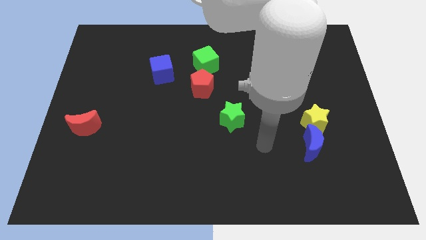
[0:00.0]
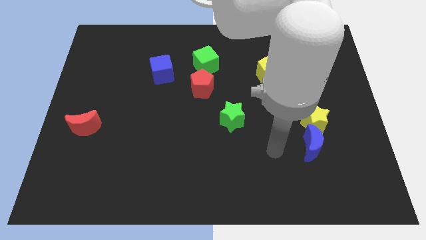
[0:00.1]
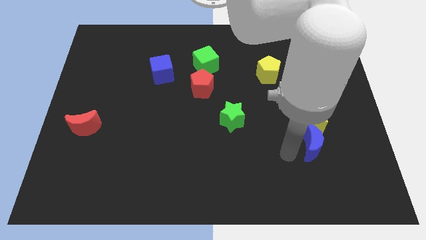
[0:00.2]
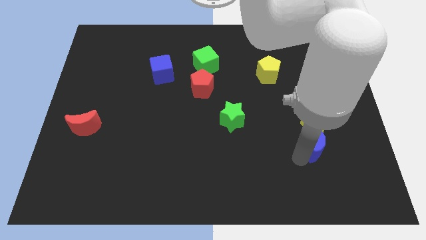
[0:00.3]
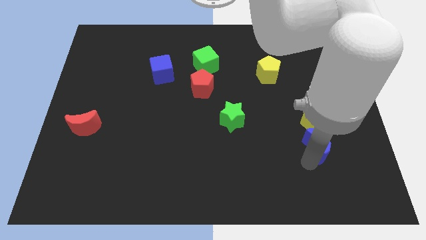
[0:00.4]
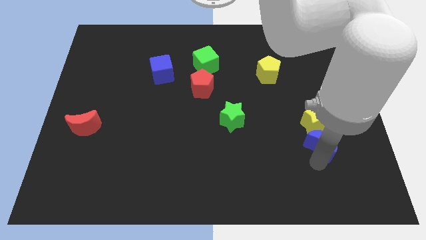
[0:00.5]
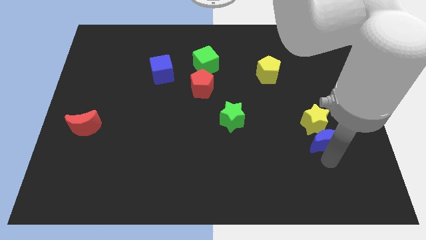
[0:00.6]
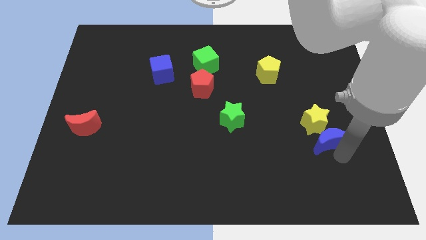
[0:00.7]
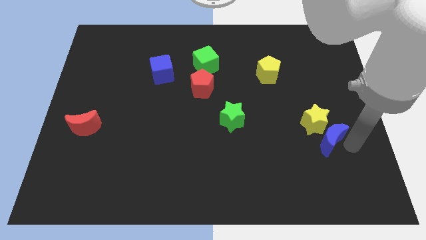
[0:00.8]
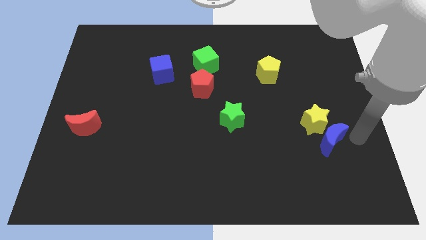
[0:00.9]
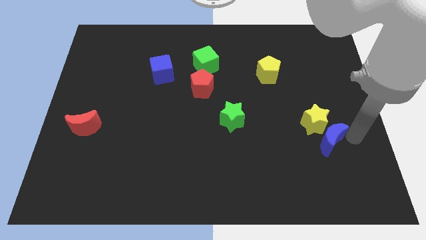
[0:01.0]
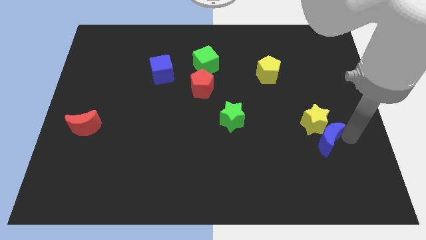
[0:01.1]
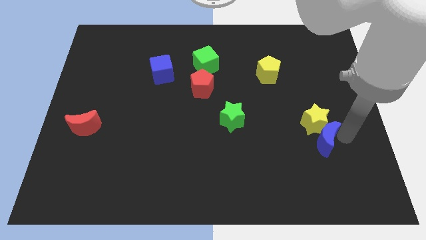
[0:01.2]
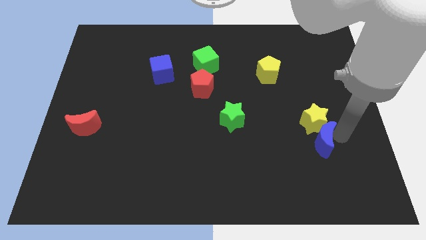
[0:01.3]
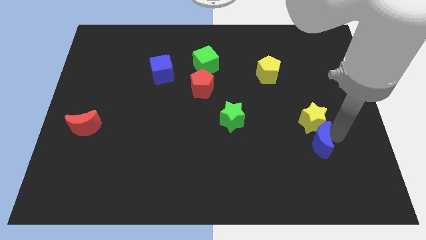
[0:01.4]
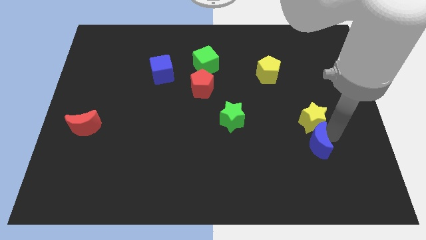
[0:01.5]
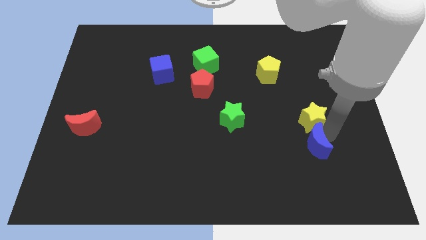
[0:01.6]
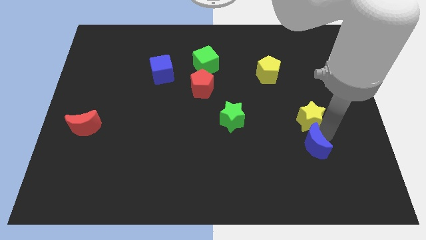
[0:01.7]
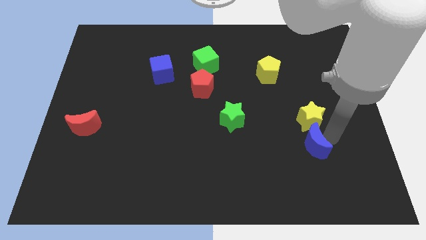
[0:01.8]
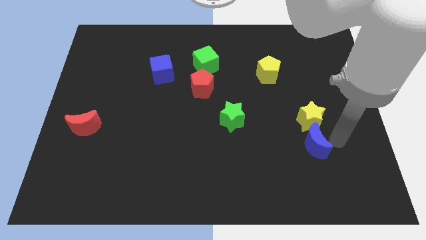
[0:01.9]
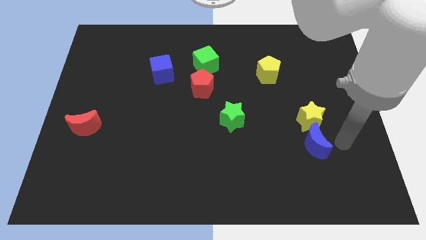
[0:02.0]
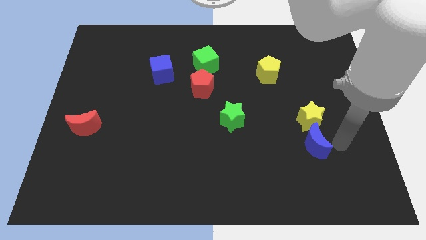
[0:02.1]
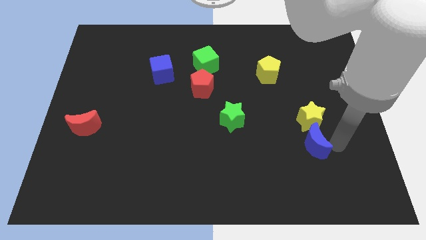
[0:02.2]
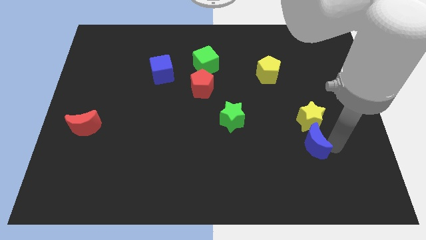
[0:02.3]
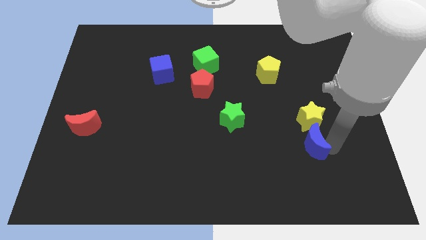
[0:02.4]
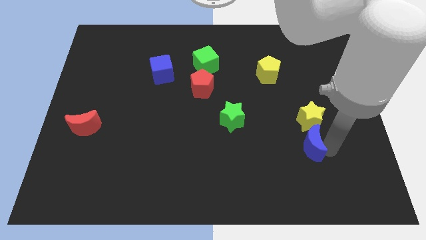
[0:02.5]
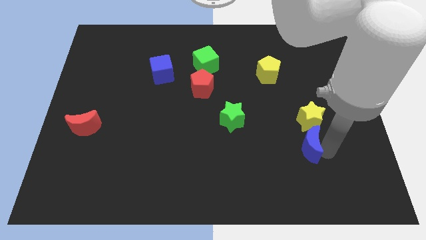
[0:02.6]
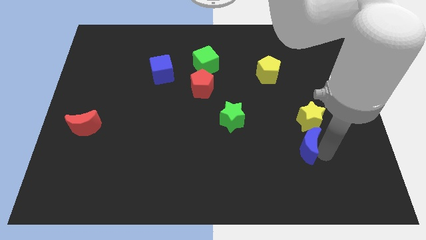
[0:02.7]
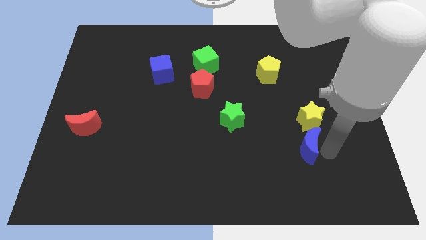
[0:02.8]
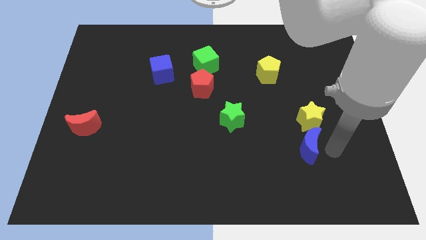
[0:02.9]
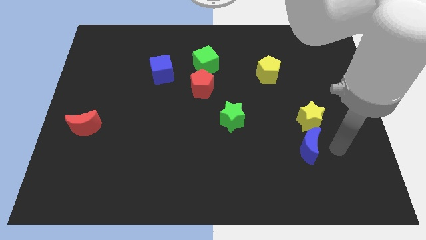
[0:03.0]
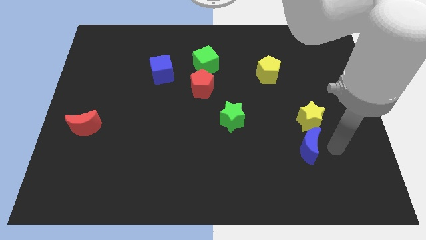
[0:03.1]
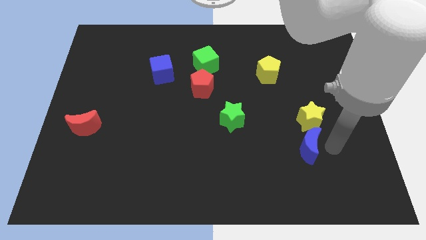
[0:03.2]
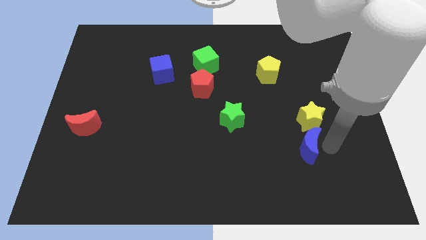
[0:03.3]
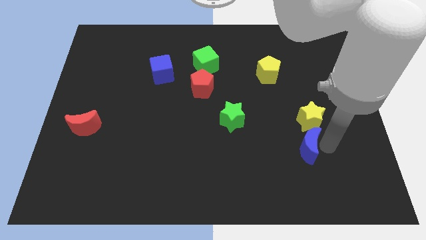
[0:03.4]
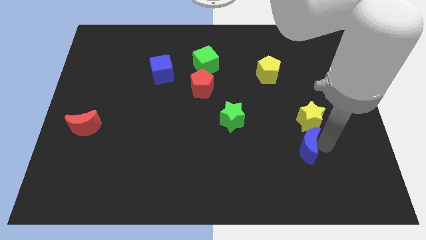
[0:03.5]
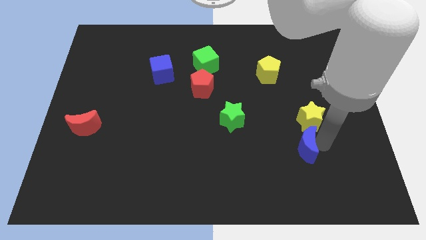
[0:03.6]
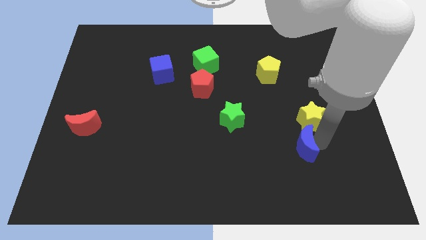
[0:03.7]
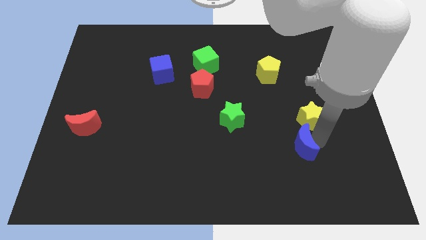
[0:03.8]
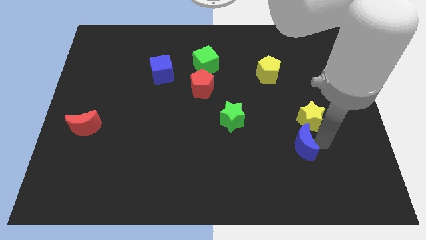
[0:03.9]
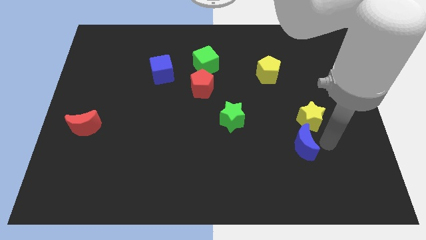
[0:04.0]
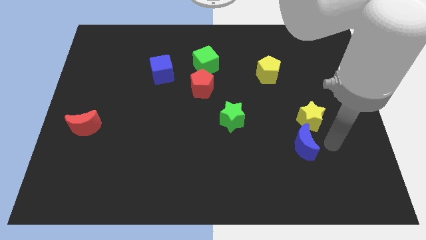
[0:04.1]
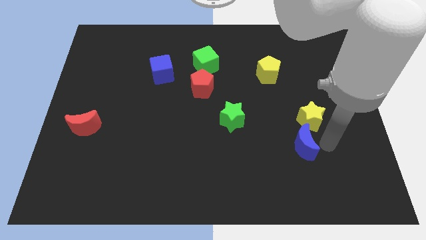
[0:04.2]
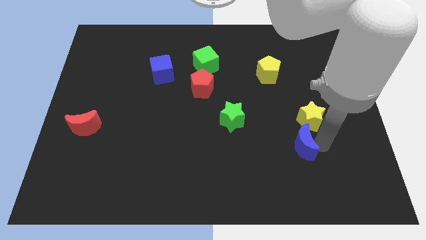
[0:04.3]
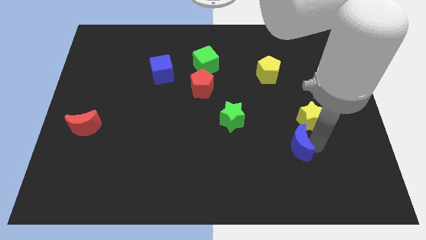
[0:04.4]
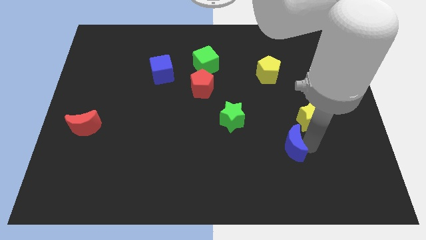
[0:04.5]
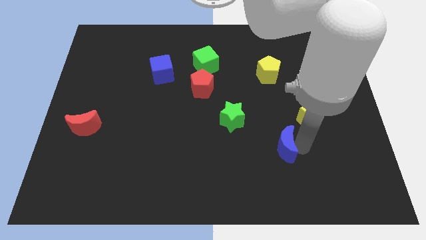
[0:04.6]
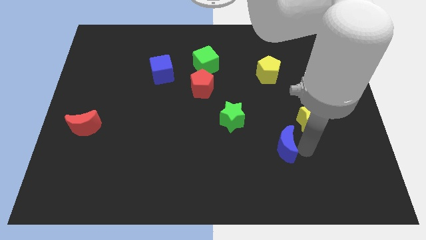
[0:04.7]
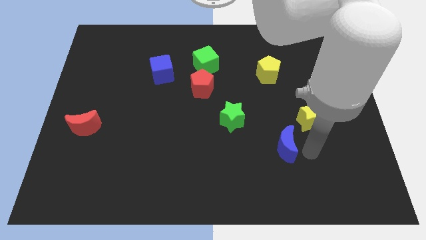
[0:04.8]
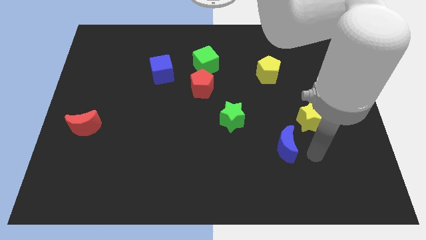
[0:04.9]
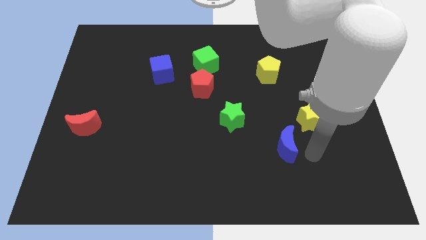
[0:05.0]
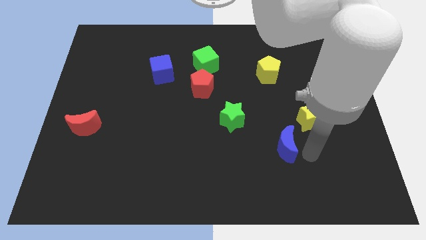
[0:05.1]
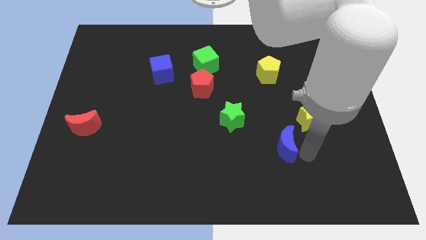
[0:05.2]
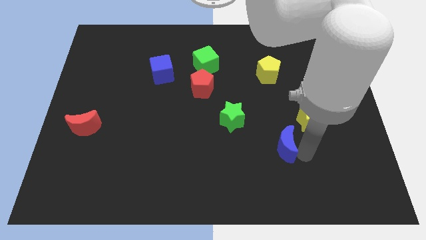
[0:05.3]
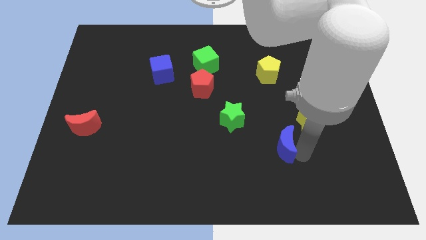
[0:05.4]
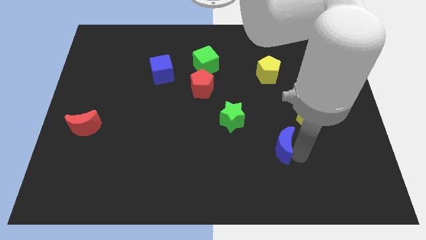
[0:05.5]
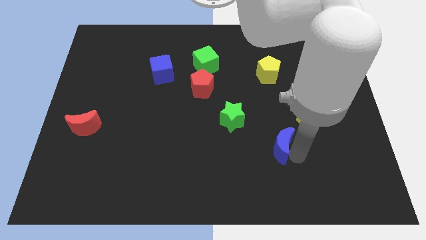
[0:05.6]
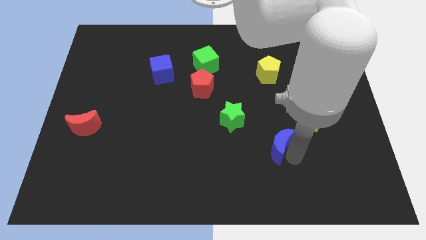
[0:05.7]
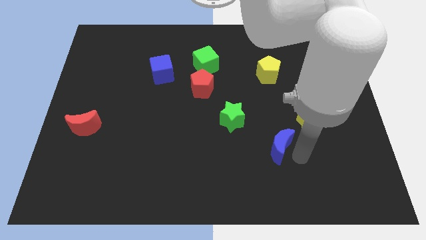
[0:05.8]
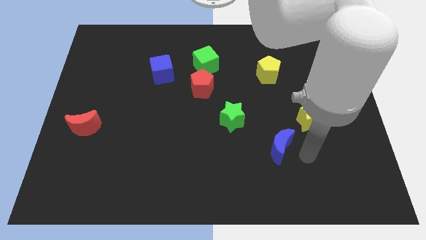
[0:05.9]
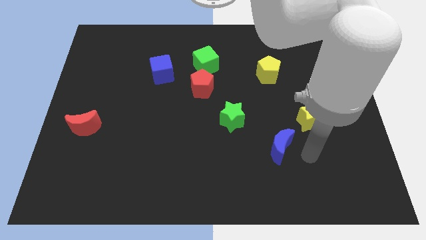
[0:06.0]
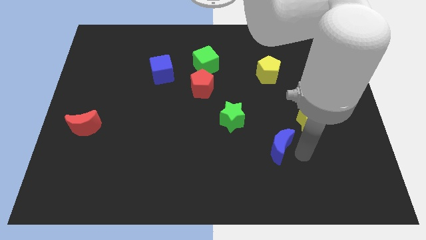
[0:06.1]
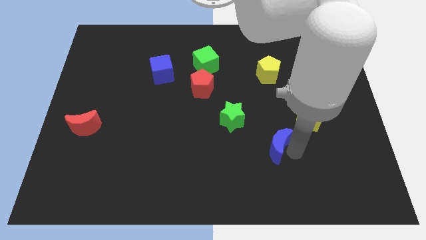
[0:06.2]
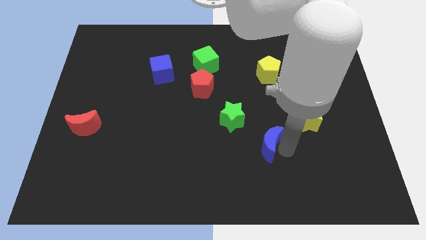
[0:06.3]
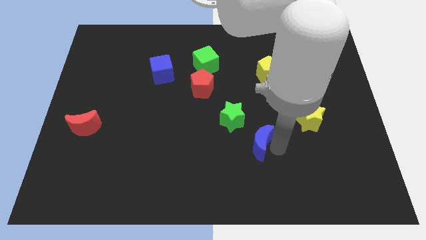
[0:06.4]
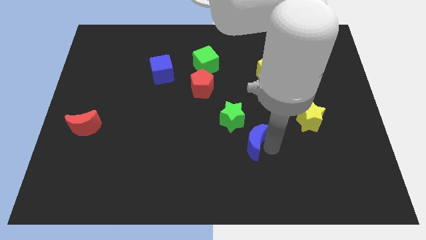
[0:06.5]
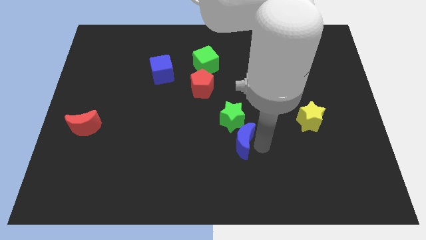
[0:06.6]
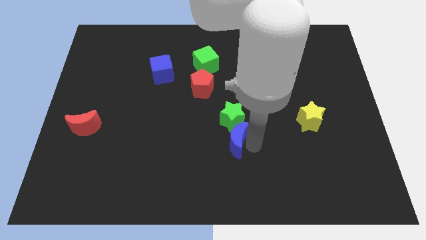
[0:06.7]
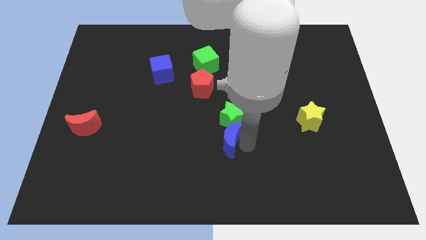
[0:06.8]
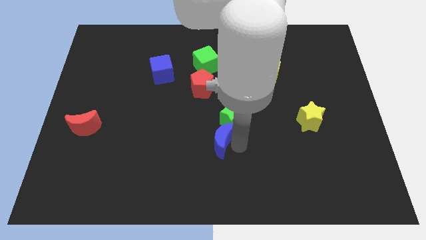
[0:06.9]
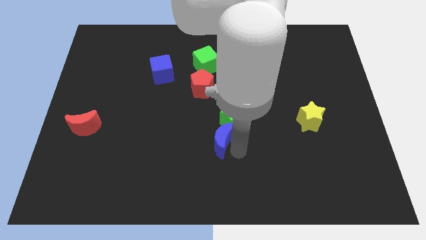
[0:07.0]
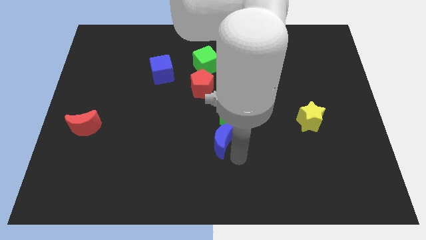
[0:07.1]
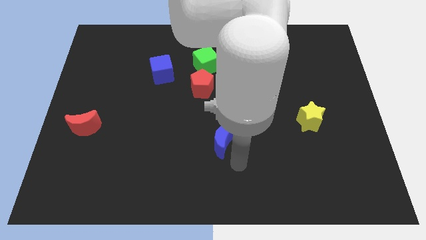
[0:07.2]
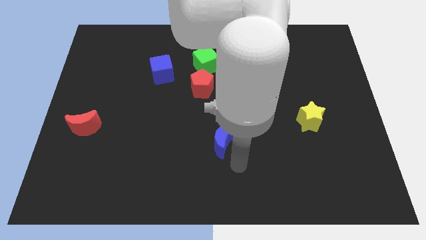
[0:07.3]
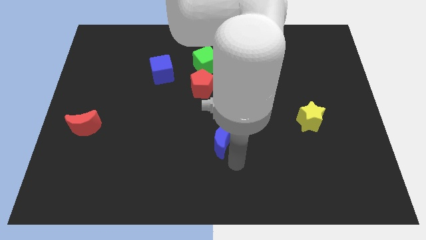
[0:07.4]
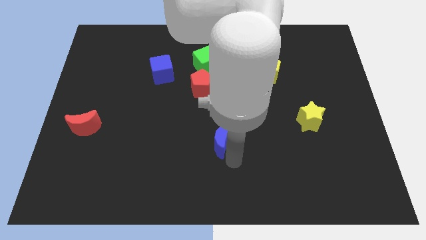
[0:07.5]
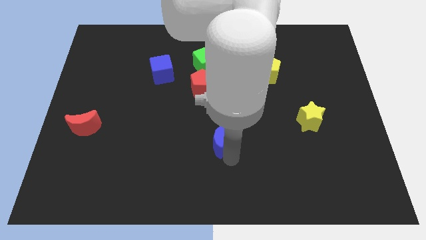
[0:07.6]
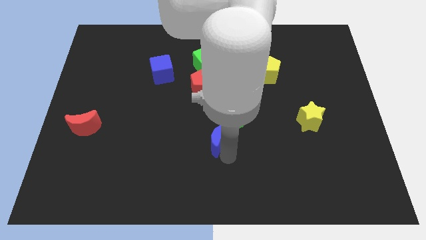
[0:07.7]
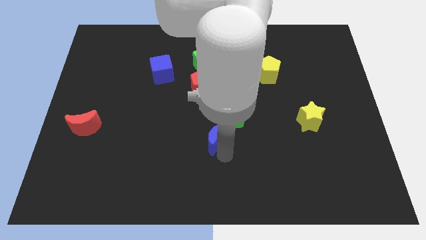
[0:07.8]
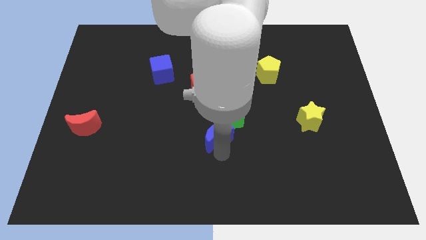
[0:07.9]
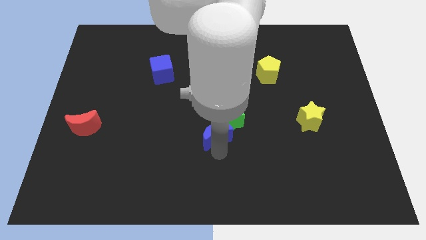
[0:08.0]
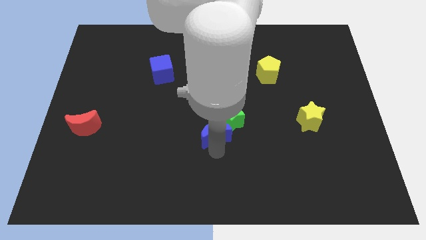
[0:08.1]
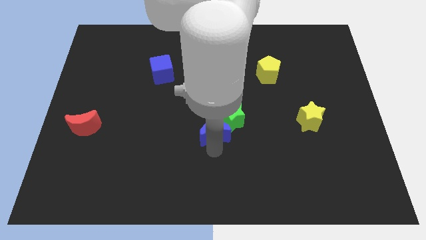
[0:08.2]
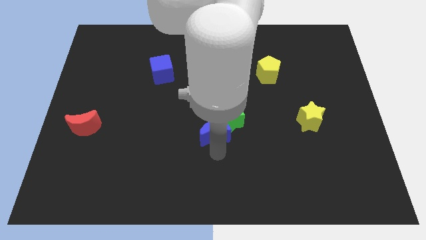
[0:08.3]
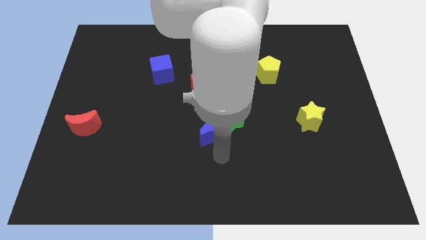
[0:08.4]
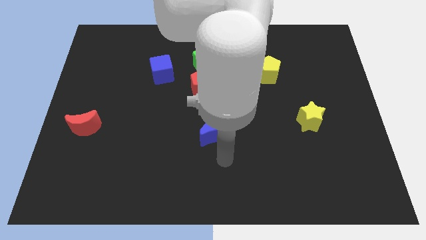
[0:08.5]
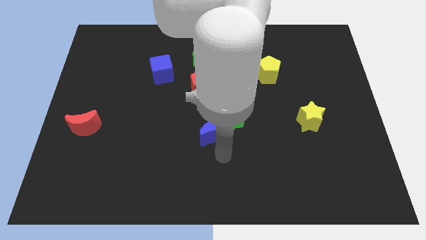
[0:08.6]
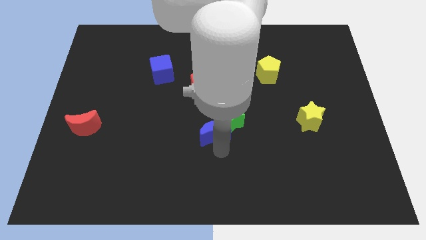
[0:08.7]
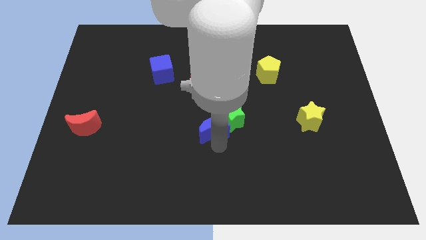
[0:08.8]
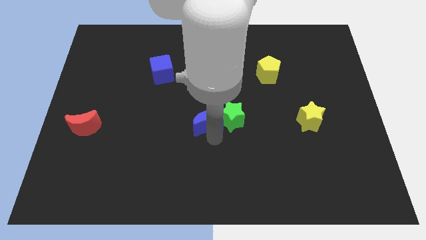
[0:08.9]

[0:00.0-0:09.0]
push the blue moon to the top left side of the green star
